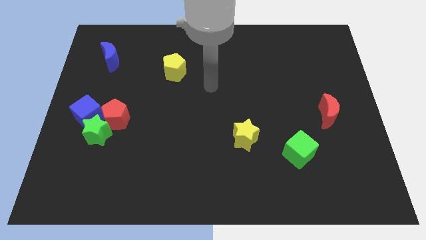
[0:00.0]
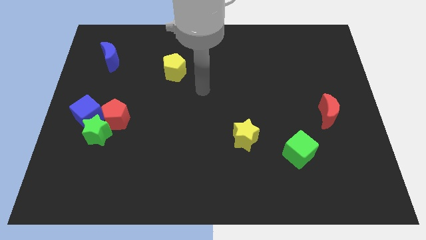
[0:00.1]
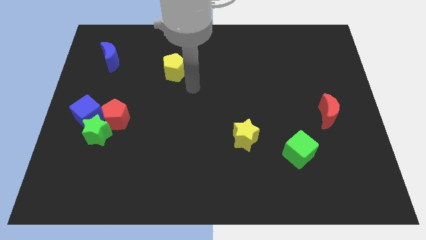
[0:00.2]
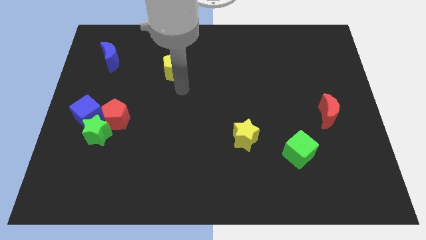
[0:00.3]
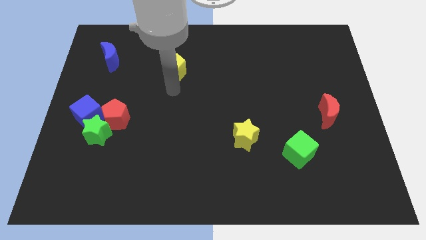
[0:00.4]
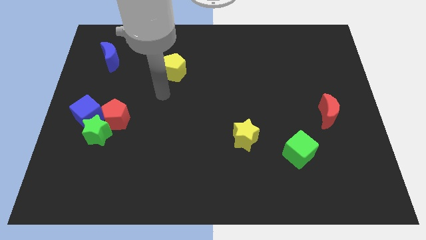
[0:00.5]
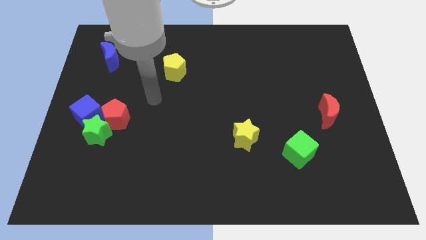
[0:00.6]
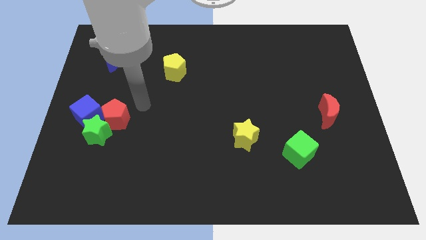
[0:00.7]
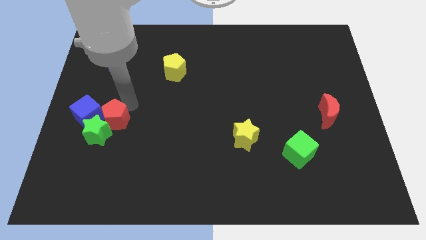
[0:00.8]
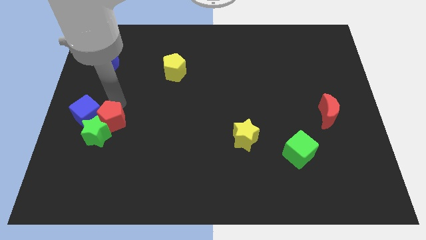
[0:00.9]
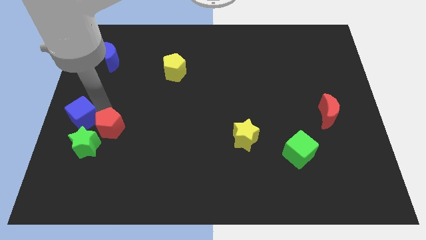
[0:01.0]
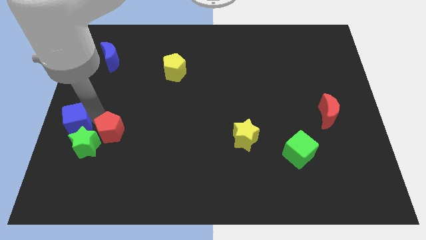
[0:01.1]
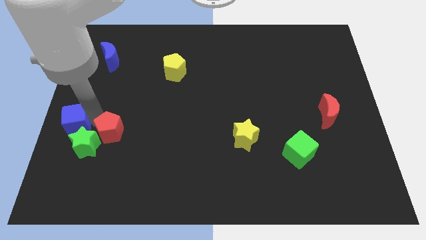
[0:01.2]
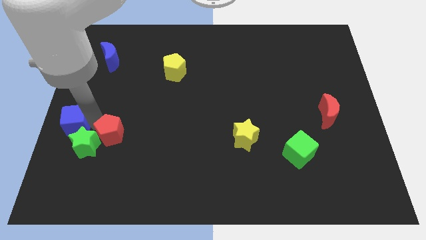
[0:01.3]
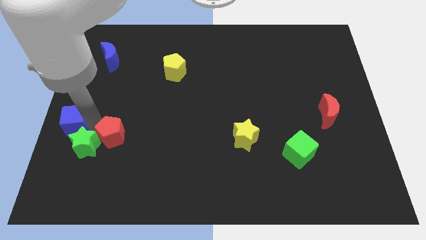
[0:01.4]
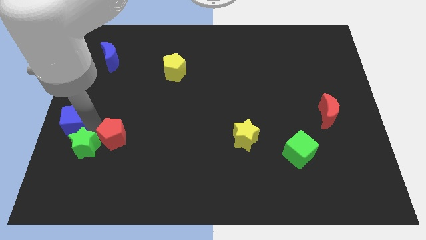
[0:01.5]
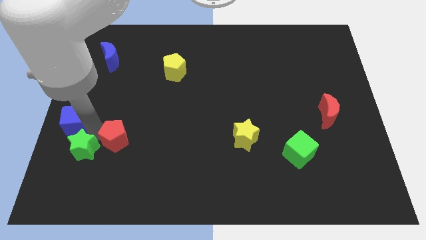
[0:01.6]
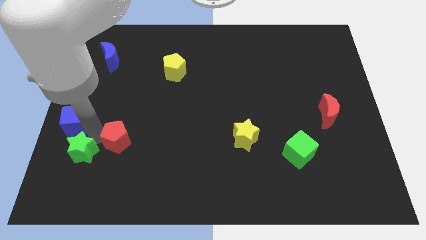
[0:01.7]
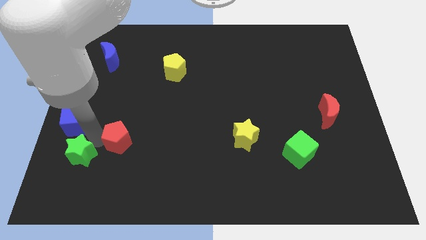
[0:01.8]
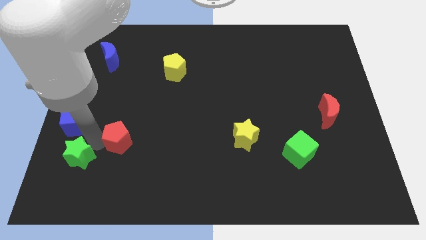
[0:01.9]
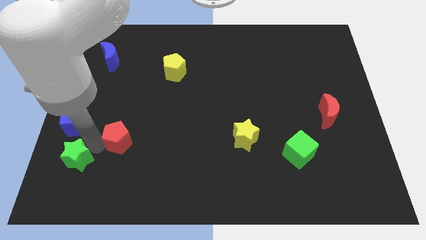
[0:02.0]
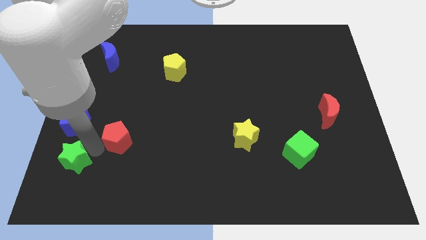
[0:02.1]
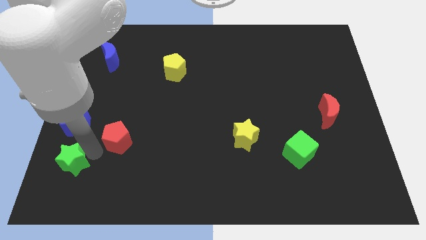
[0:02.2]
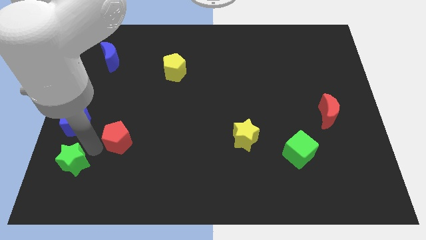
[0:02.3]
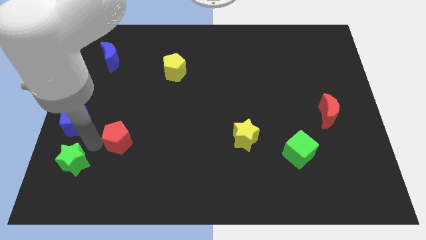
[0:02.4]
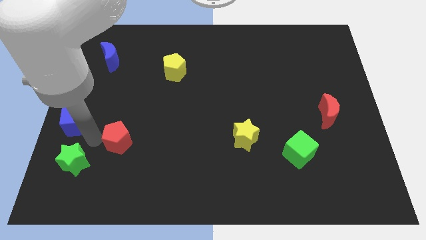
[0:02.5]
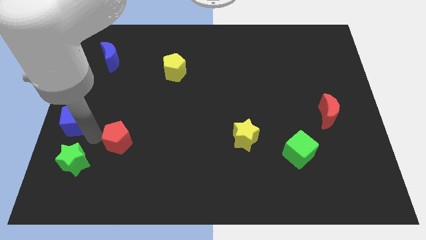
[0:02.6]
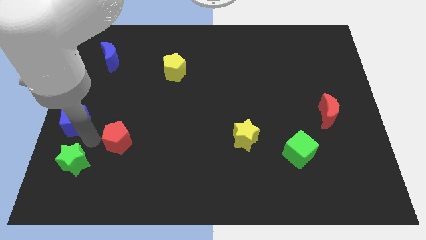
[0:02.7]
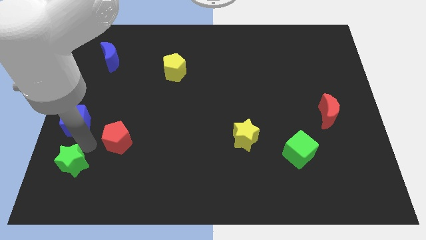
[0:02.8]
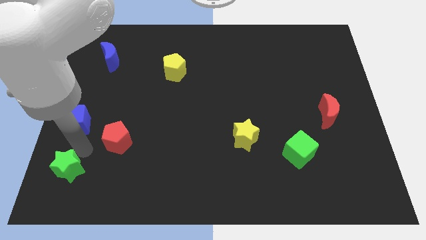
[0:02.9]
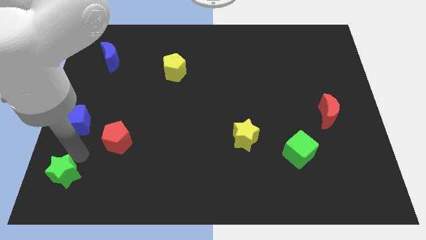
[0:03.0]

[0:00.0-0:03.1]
pull the green star apart from the red pentagon and blue cube

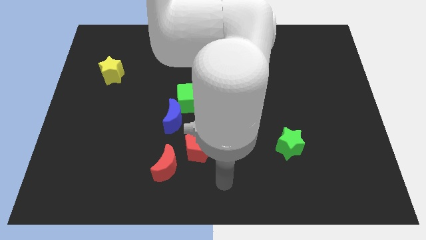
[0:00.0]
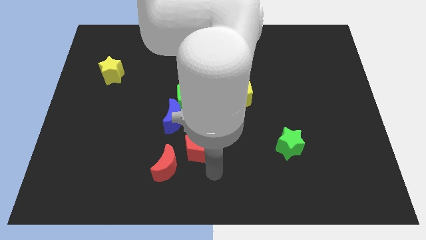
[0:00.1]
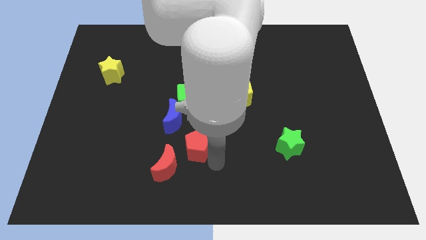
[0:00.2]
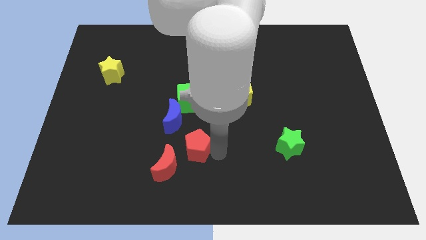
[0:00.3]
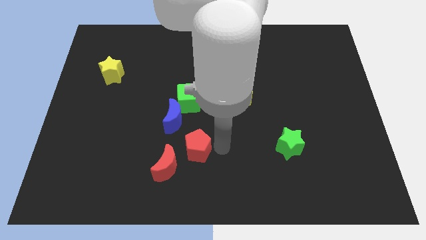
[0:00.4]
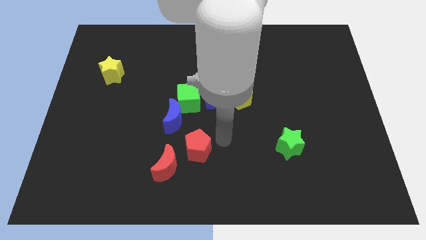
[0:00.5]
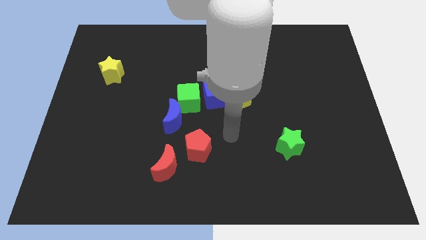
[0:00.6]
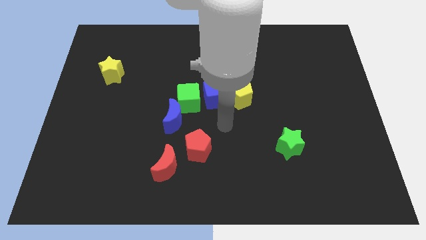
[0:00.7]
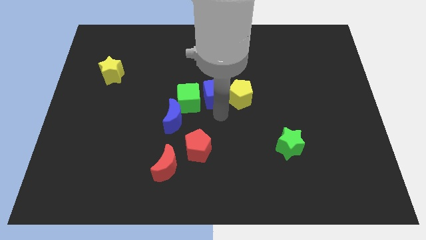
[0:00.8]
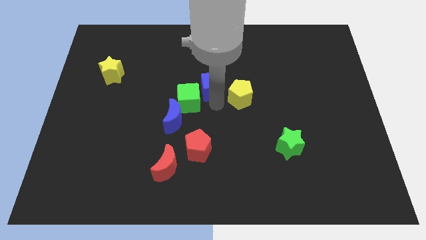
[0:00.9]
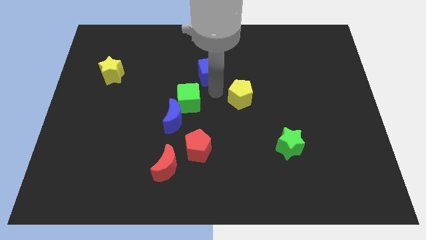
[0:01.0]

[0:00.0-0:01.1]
move the yellow pentagon away from the blue cube

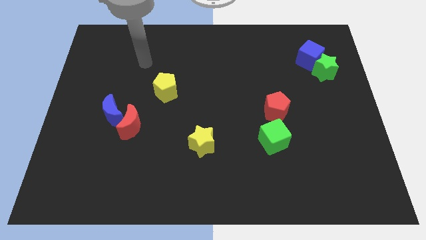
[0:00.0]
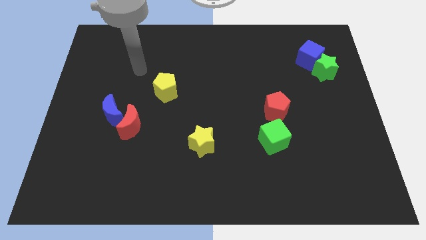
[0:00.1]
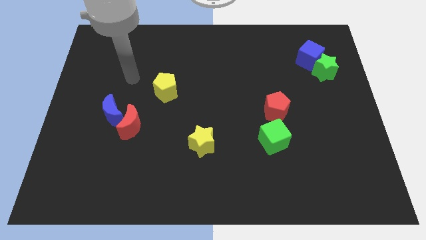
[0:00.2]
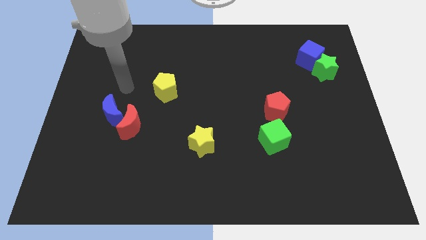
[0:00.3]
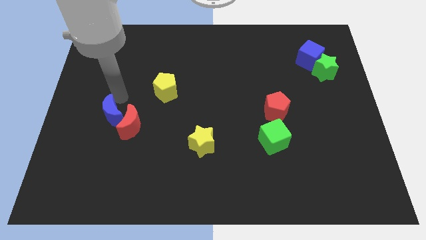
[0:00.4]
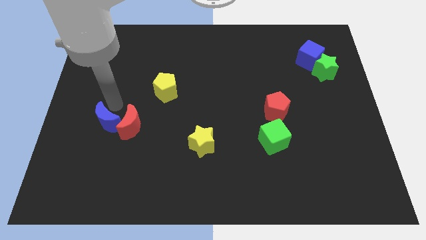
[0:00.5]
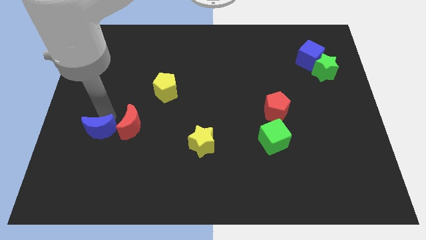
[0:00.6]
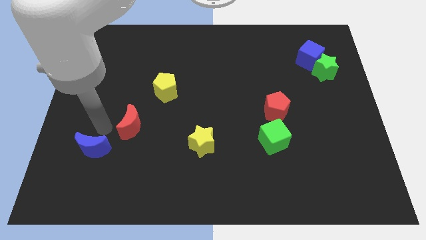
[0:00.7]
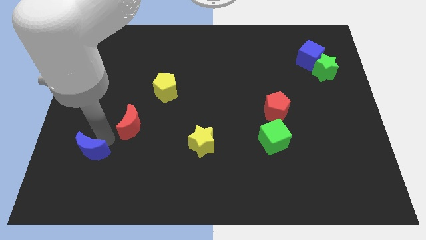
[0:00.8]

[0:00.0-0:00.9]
pull the red moon apart from the blue moon

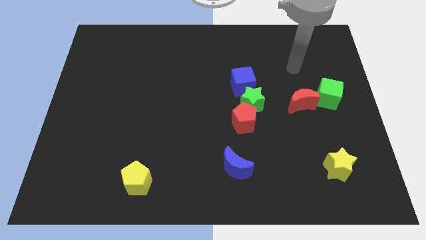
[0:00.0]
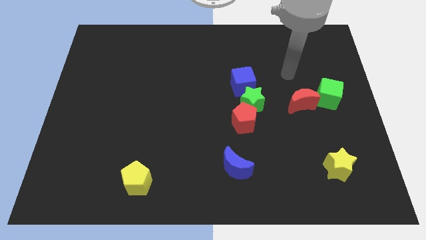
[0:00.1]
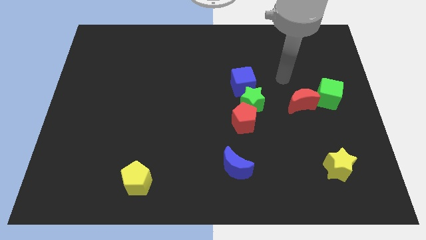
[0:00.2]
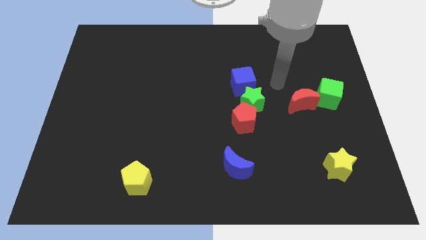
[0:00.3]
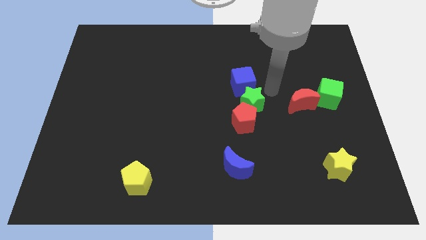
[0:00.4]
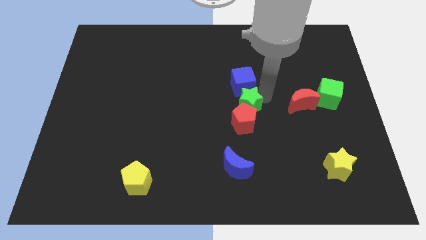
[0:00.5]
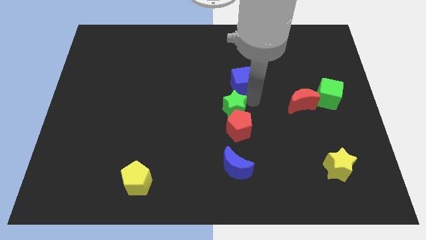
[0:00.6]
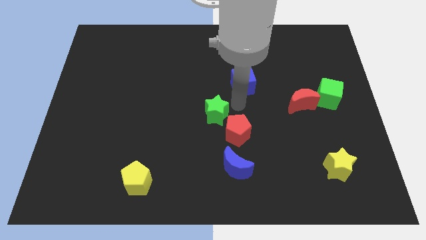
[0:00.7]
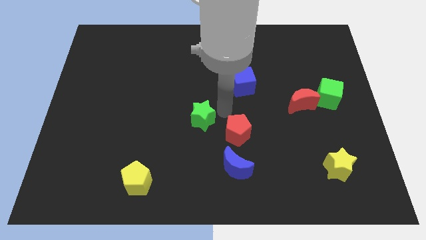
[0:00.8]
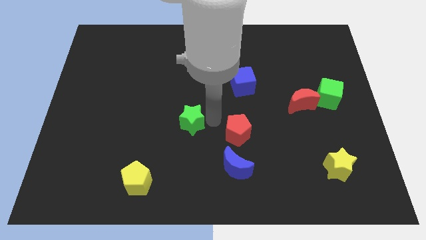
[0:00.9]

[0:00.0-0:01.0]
pull the red pentagon apart from the green star

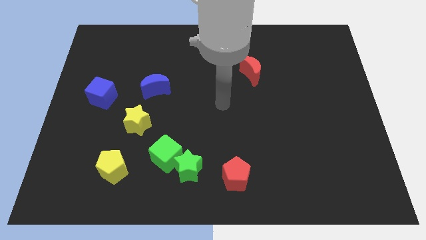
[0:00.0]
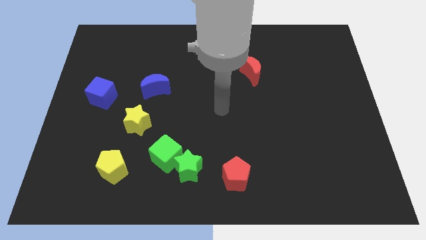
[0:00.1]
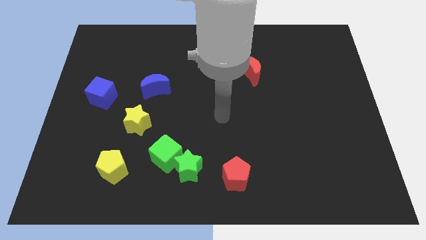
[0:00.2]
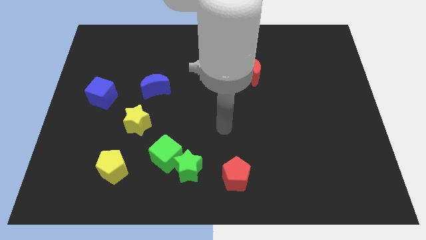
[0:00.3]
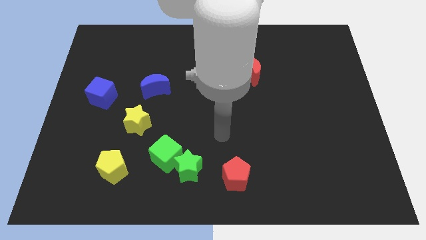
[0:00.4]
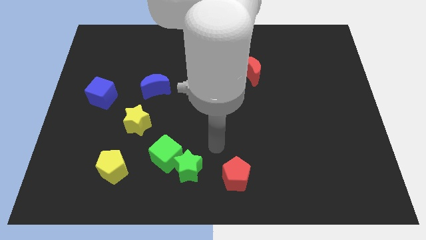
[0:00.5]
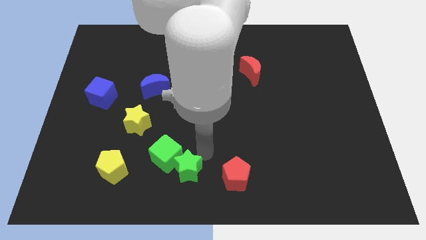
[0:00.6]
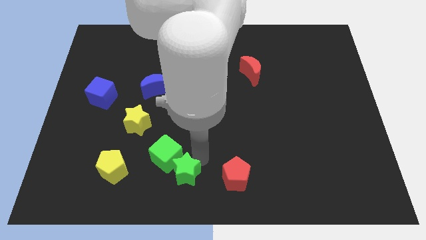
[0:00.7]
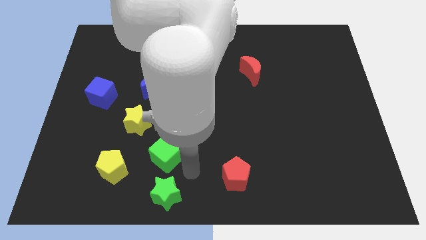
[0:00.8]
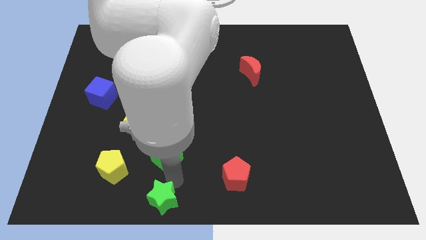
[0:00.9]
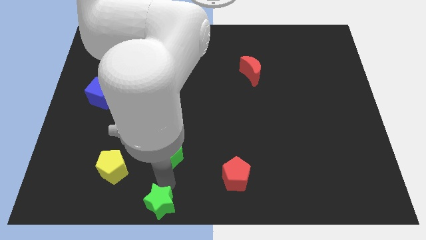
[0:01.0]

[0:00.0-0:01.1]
move the green cube away from the green star

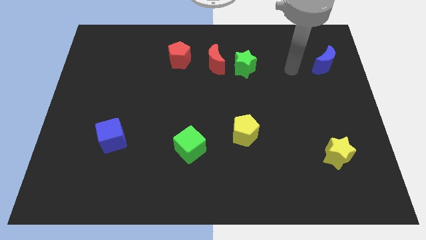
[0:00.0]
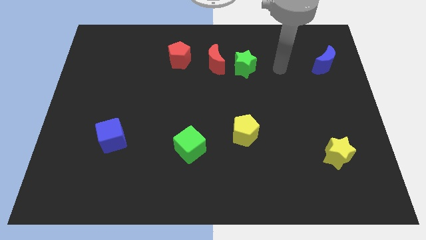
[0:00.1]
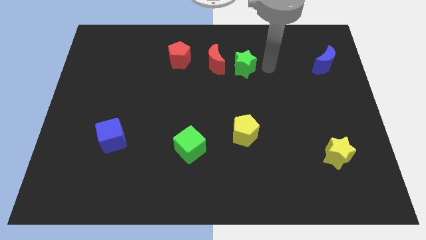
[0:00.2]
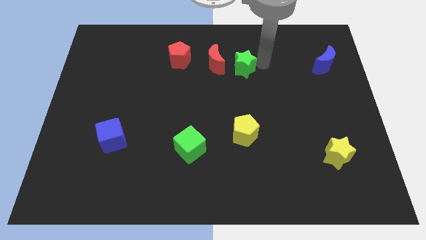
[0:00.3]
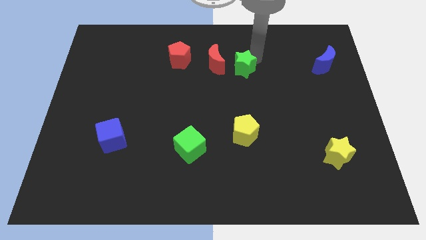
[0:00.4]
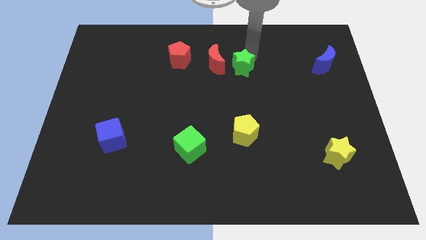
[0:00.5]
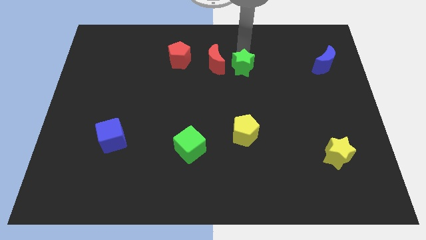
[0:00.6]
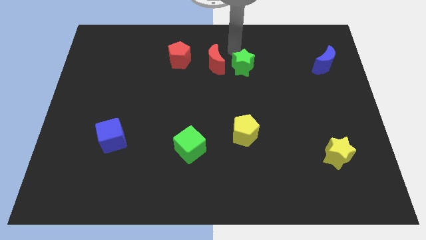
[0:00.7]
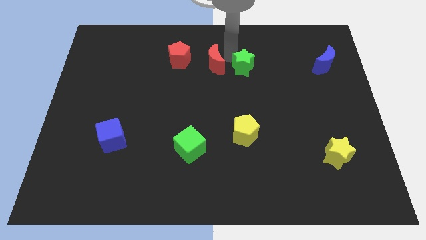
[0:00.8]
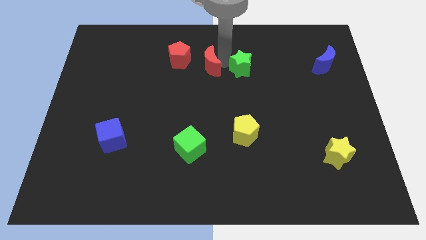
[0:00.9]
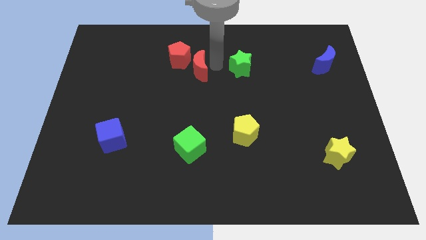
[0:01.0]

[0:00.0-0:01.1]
move the green star away from the red moon

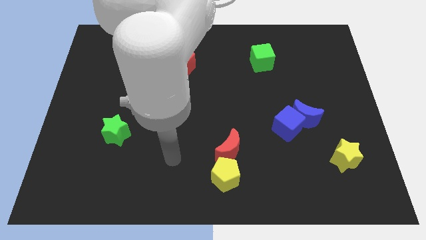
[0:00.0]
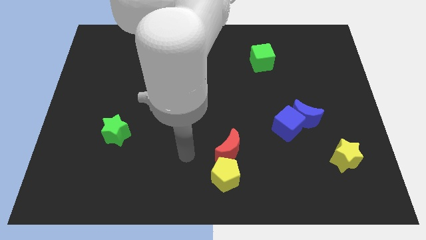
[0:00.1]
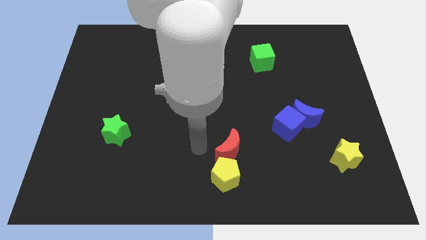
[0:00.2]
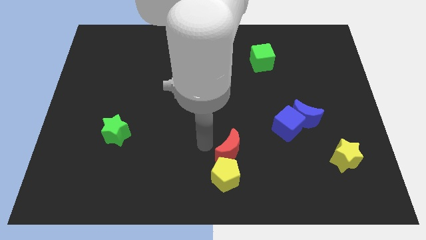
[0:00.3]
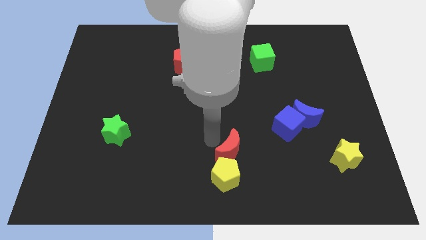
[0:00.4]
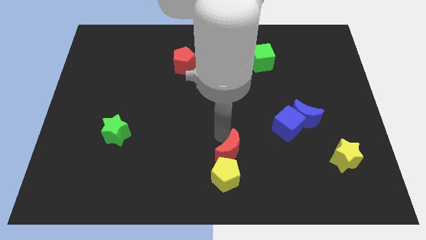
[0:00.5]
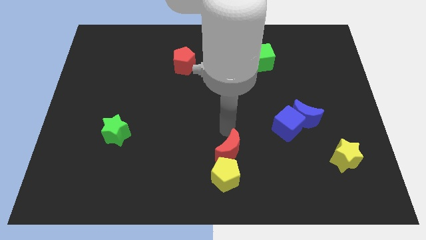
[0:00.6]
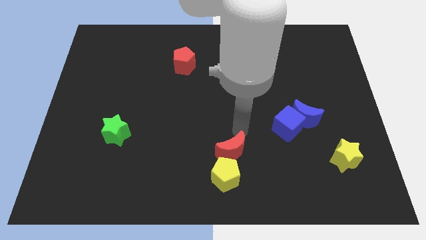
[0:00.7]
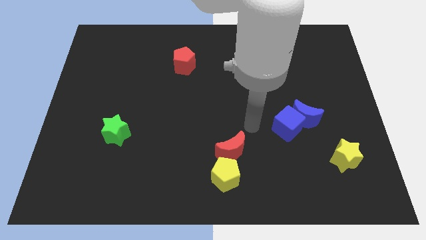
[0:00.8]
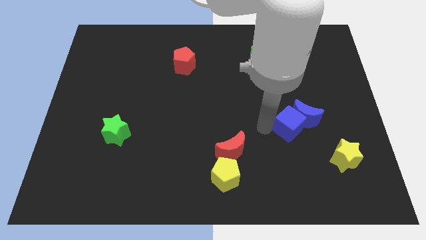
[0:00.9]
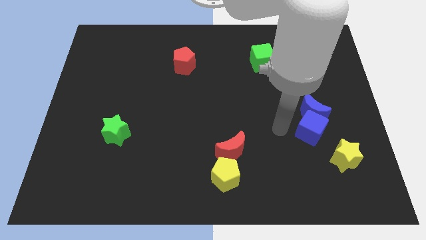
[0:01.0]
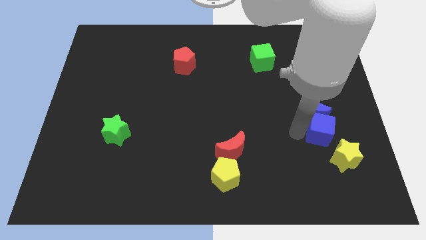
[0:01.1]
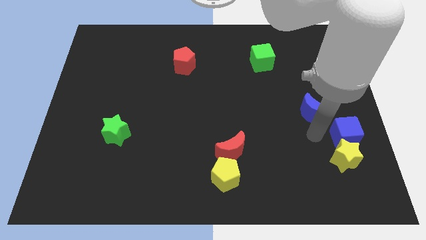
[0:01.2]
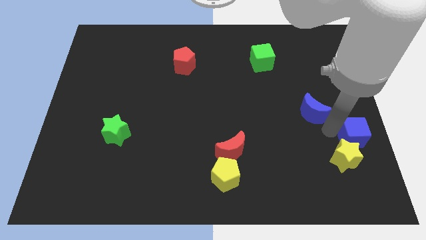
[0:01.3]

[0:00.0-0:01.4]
move the blue moon away from the blue cube
